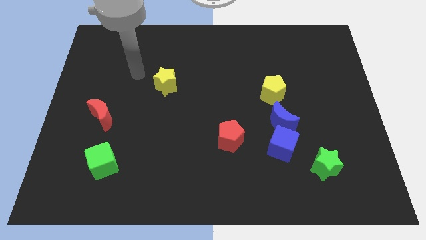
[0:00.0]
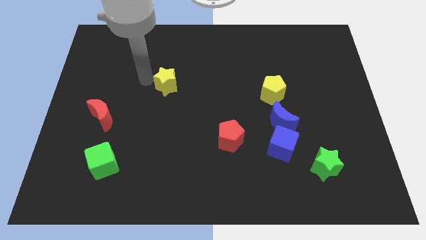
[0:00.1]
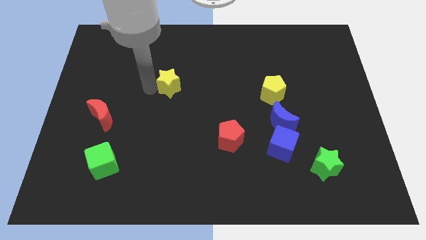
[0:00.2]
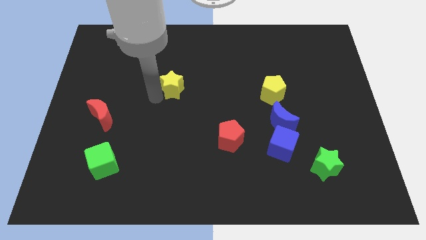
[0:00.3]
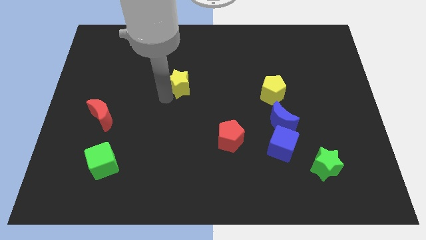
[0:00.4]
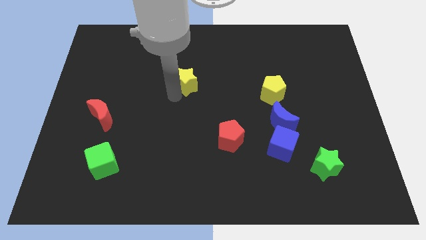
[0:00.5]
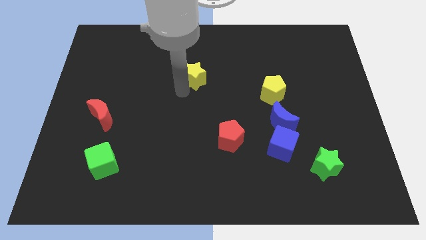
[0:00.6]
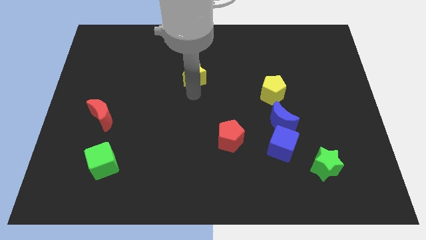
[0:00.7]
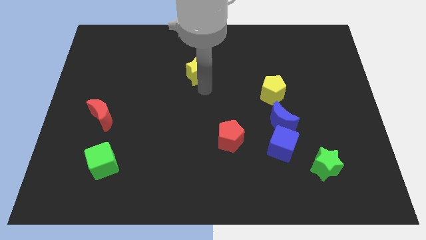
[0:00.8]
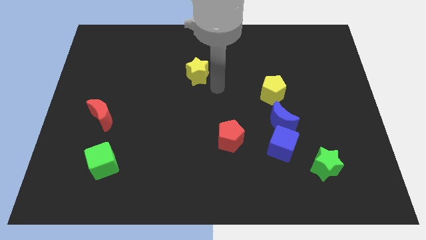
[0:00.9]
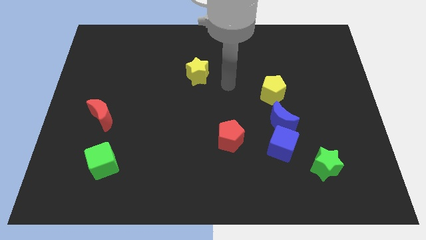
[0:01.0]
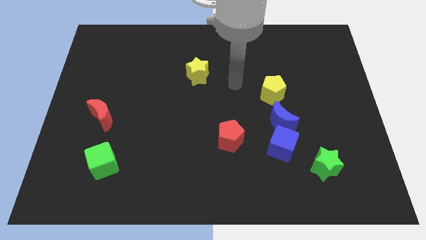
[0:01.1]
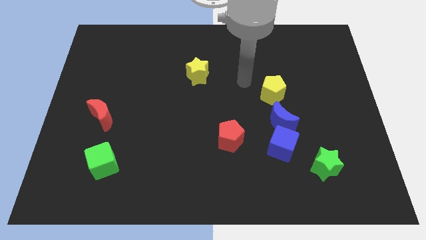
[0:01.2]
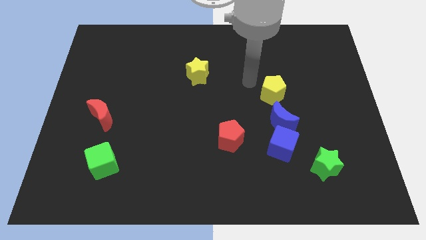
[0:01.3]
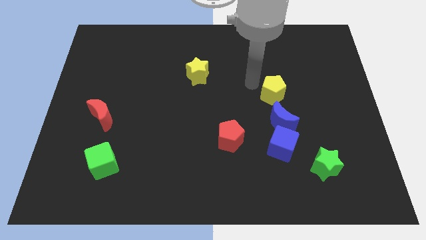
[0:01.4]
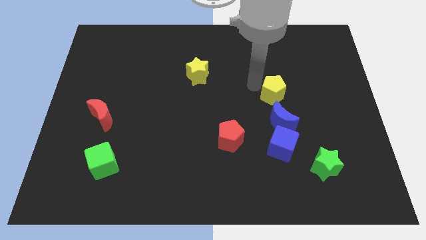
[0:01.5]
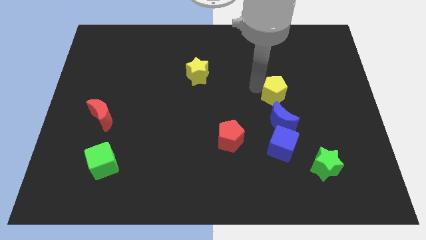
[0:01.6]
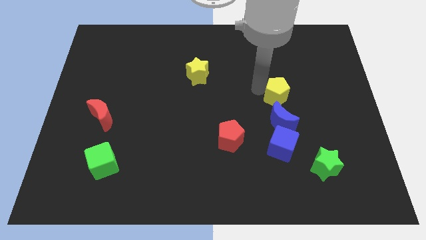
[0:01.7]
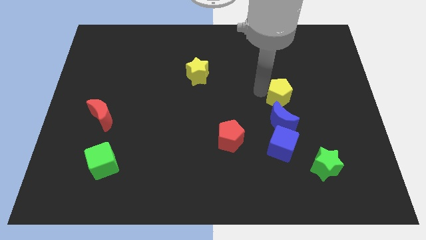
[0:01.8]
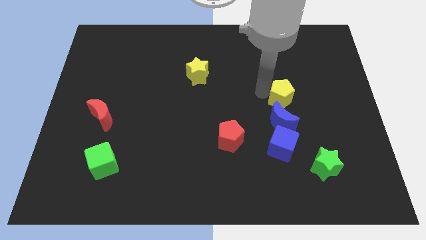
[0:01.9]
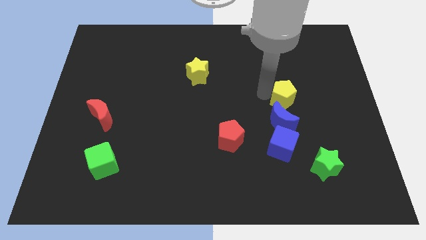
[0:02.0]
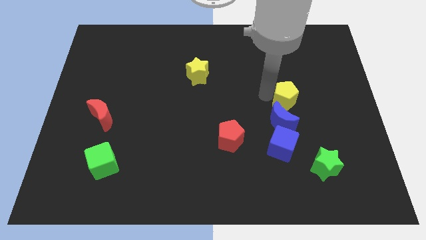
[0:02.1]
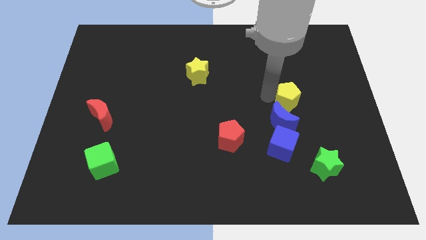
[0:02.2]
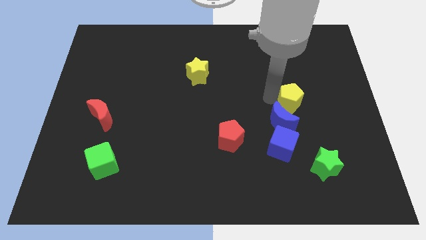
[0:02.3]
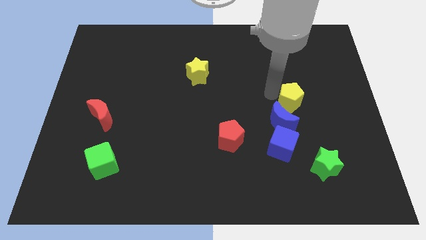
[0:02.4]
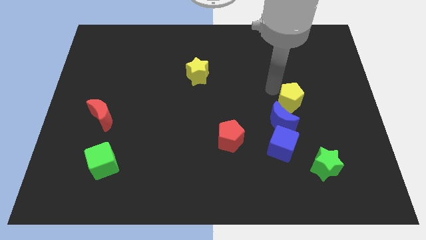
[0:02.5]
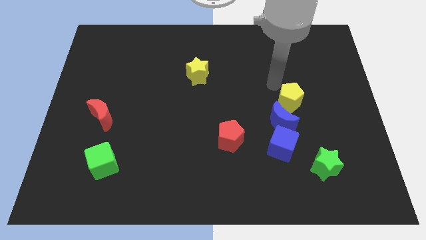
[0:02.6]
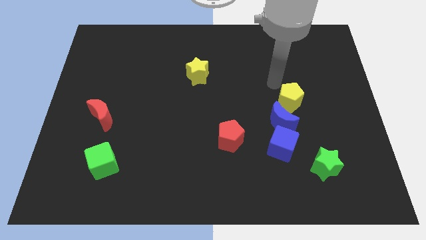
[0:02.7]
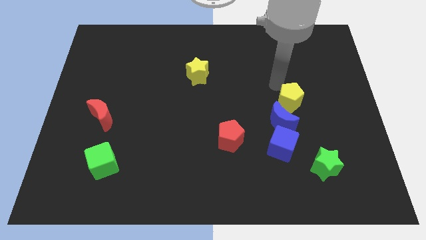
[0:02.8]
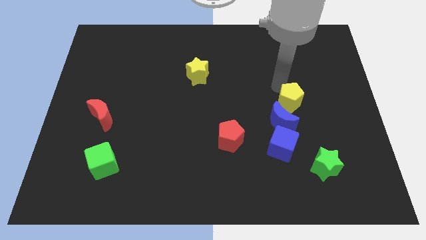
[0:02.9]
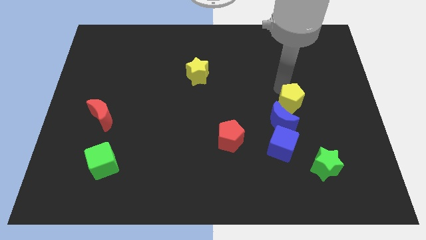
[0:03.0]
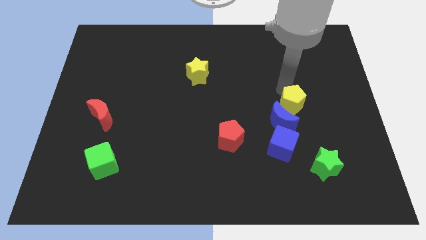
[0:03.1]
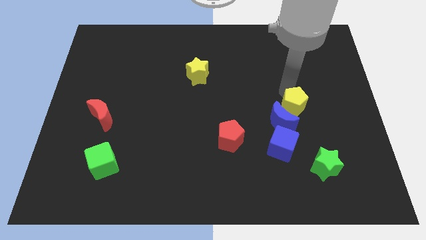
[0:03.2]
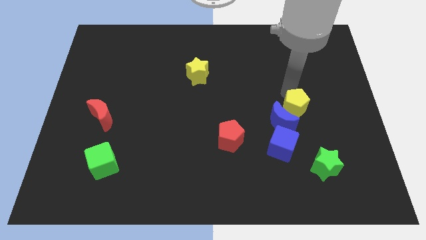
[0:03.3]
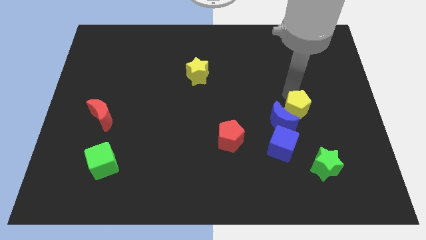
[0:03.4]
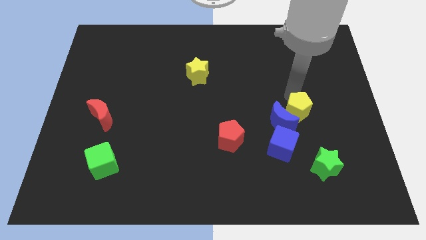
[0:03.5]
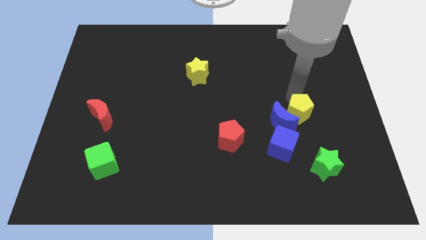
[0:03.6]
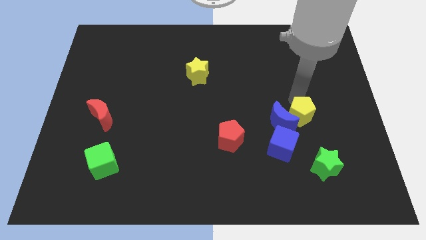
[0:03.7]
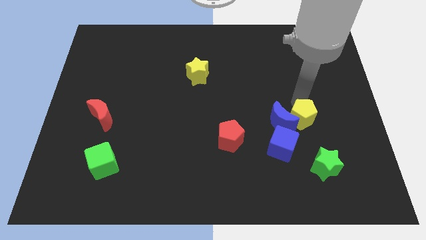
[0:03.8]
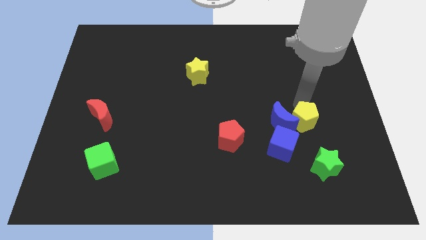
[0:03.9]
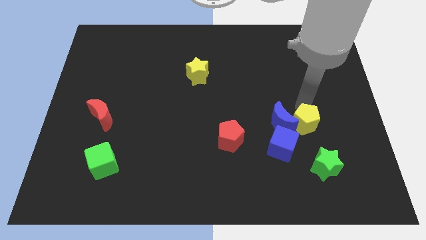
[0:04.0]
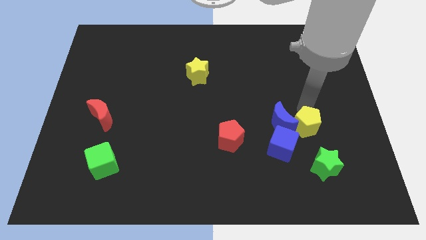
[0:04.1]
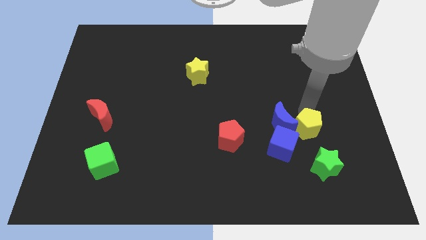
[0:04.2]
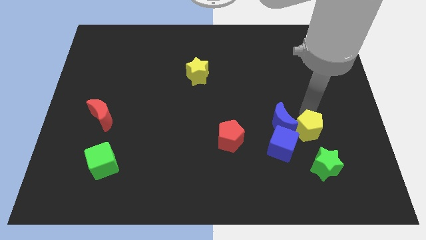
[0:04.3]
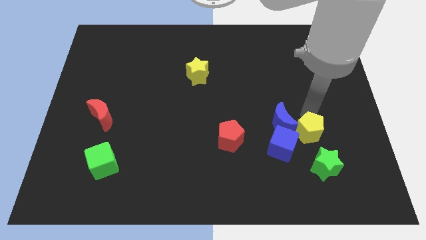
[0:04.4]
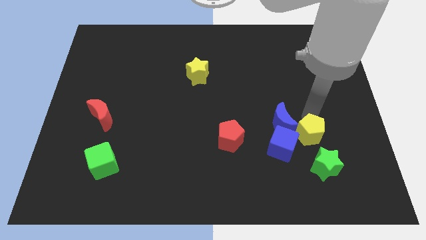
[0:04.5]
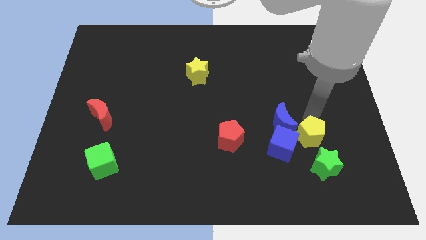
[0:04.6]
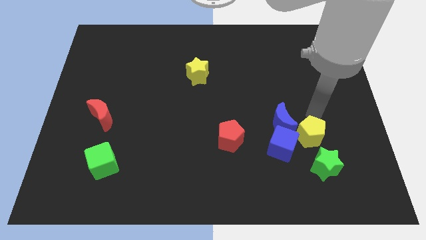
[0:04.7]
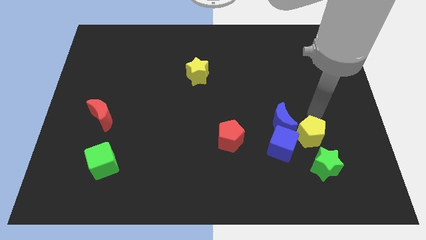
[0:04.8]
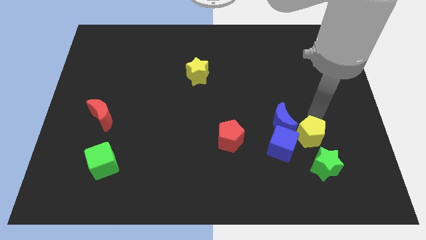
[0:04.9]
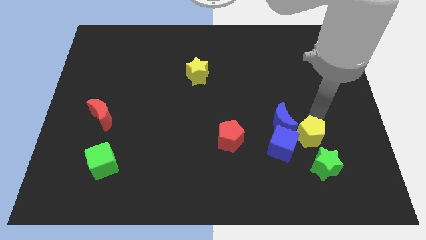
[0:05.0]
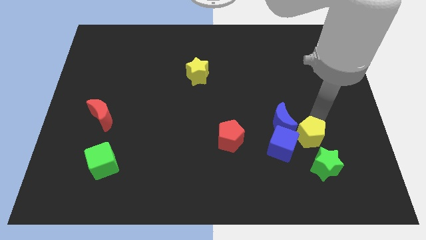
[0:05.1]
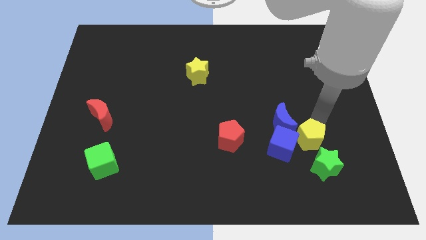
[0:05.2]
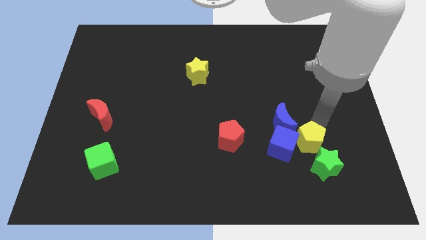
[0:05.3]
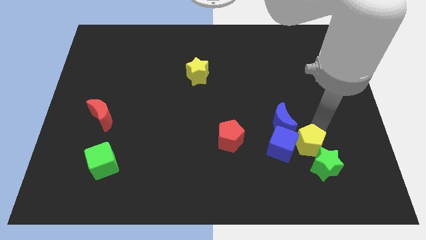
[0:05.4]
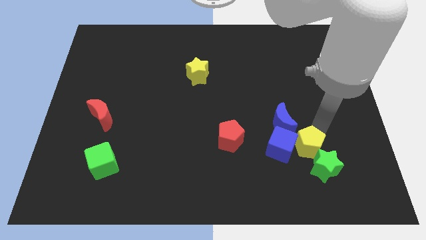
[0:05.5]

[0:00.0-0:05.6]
push the yellow pentagon below the blue moon

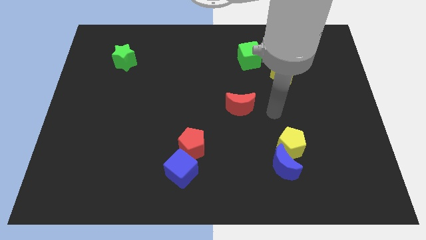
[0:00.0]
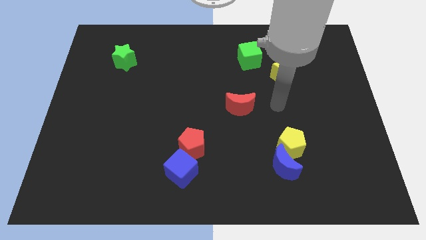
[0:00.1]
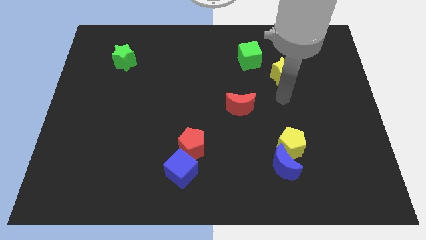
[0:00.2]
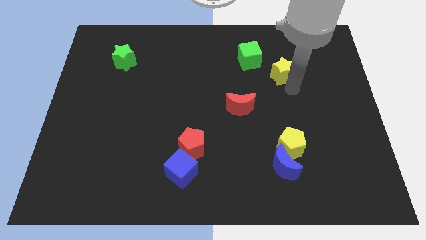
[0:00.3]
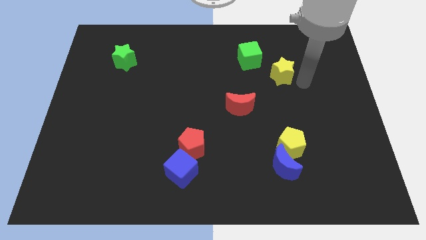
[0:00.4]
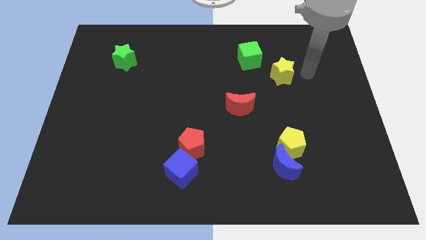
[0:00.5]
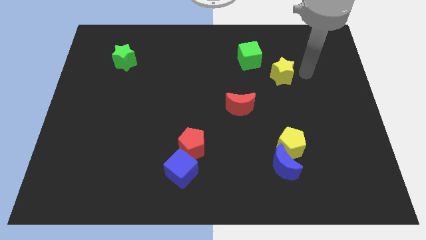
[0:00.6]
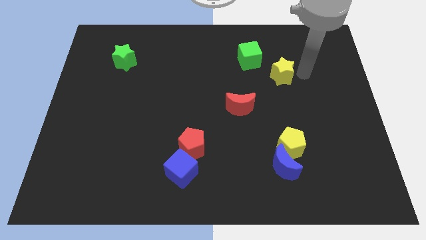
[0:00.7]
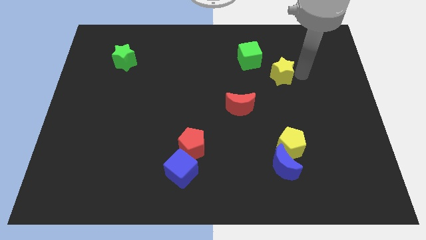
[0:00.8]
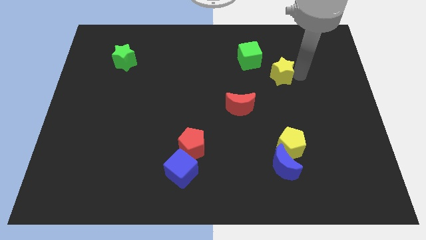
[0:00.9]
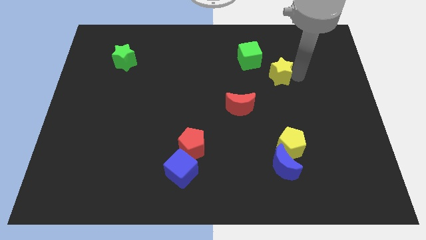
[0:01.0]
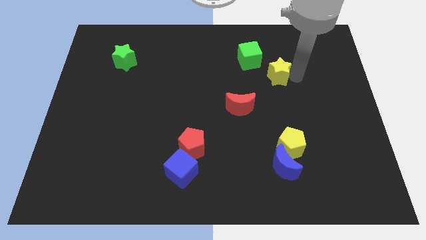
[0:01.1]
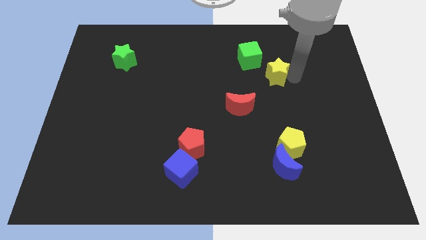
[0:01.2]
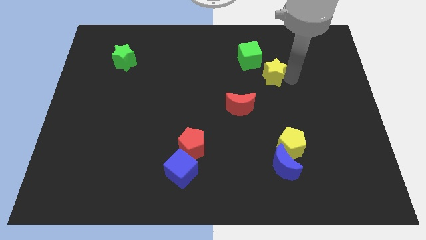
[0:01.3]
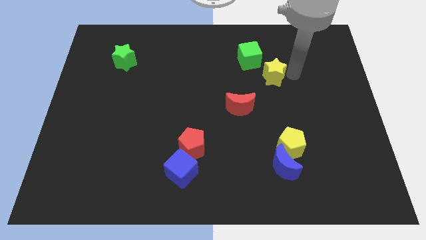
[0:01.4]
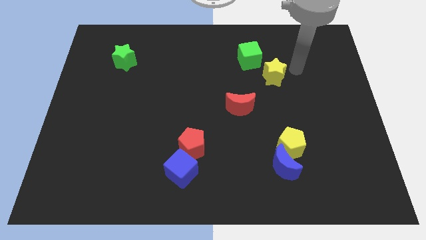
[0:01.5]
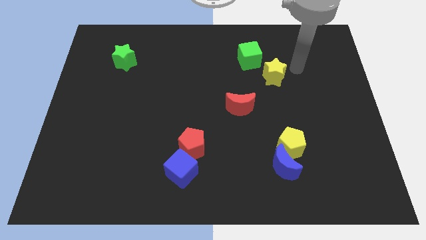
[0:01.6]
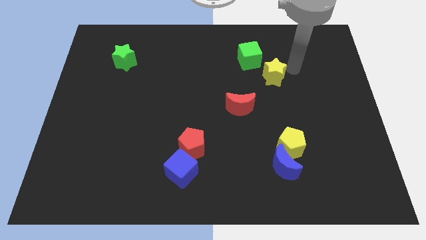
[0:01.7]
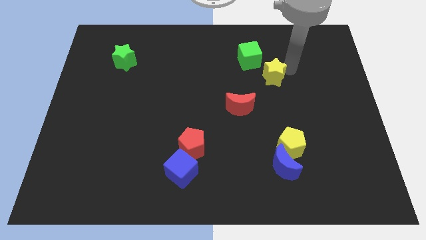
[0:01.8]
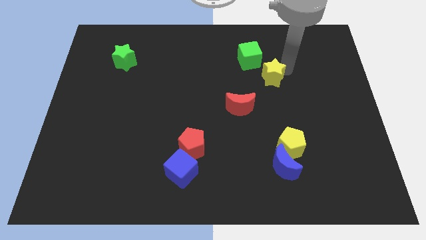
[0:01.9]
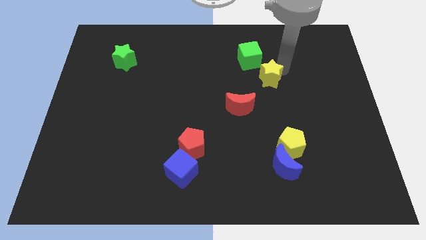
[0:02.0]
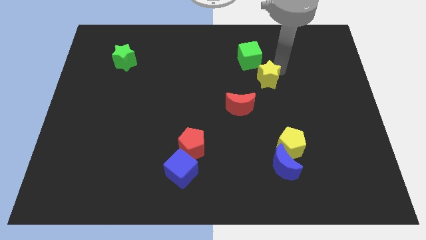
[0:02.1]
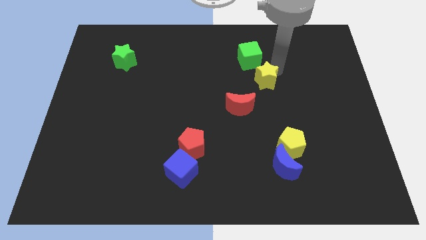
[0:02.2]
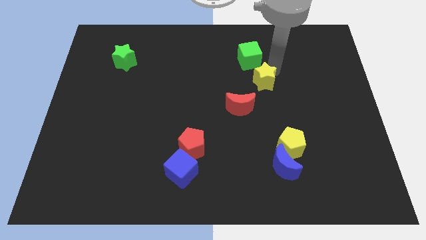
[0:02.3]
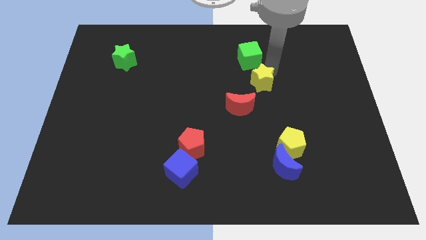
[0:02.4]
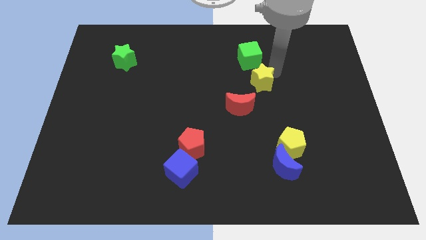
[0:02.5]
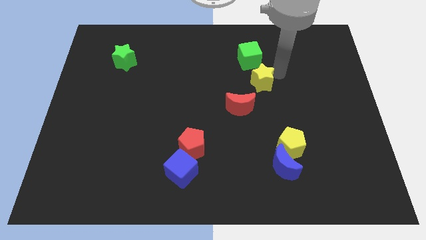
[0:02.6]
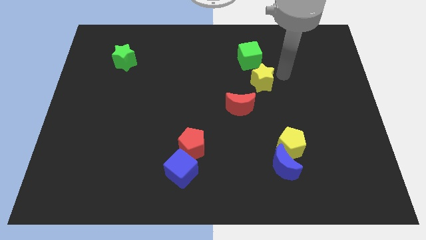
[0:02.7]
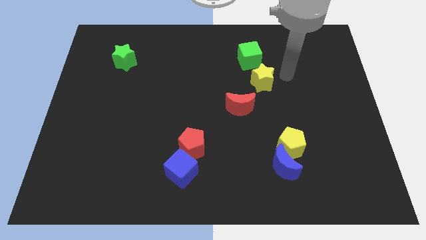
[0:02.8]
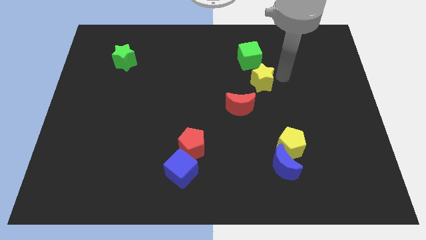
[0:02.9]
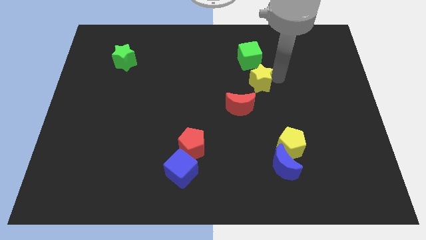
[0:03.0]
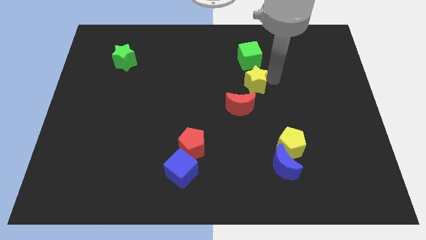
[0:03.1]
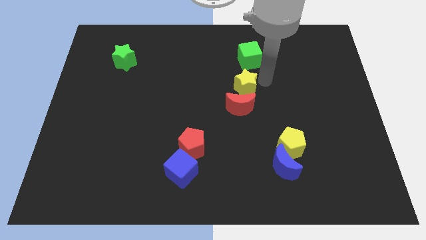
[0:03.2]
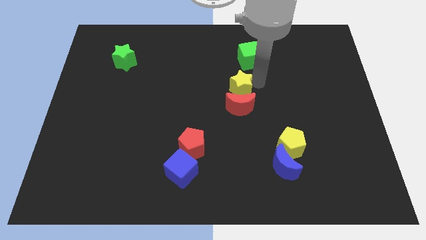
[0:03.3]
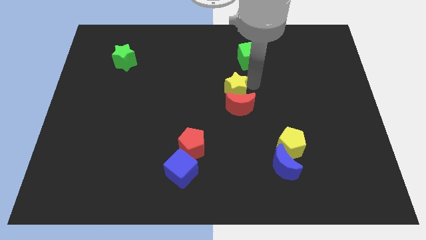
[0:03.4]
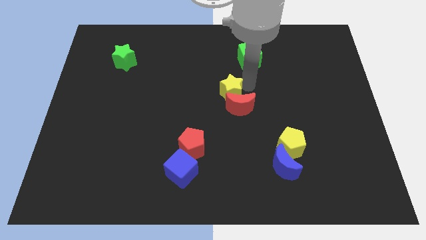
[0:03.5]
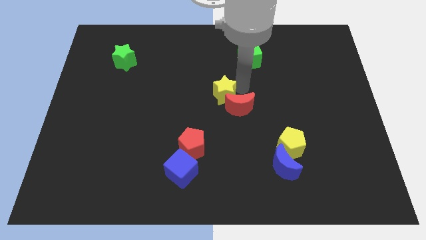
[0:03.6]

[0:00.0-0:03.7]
slide the yellow star to the left of the red moon
